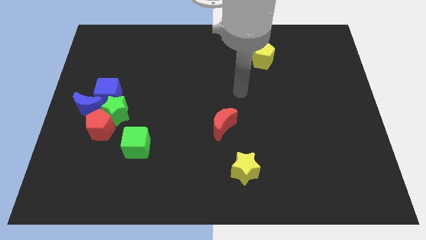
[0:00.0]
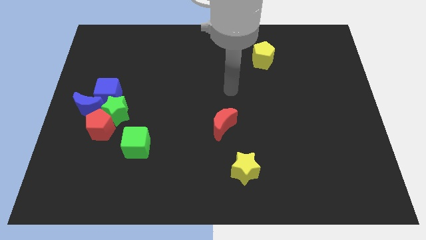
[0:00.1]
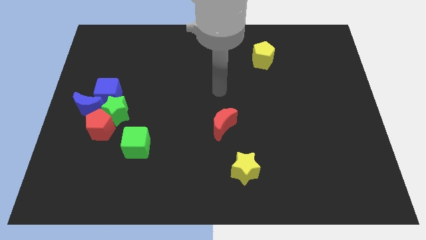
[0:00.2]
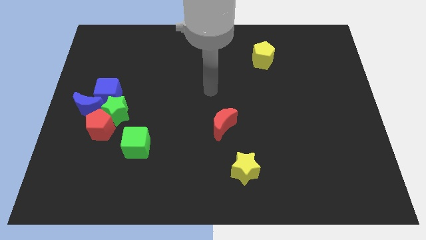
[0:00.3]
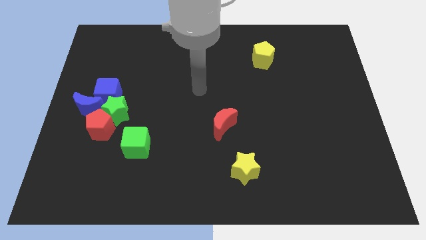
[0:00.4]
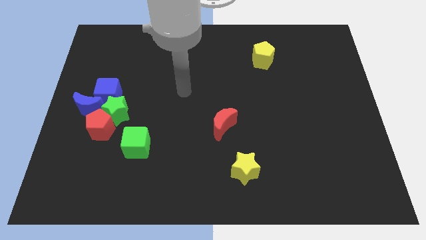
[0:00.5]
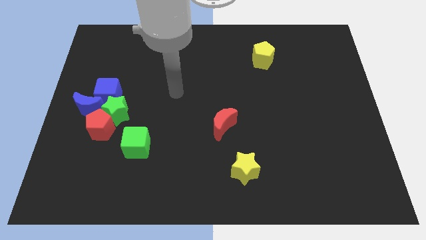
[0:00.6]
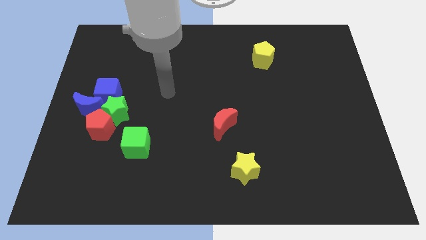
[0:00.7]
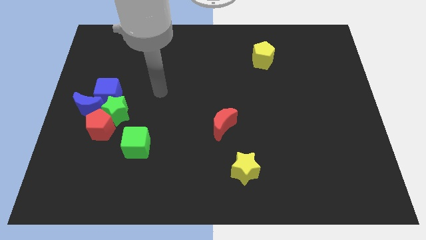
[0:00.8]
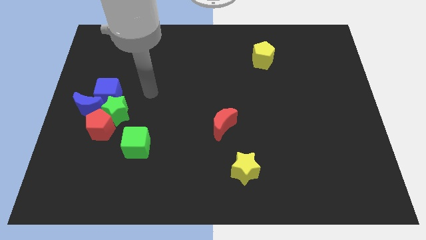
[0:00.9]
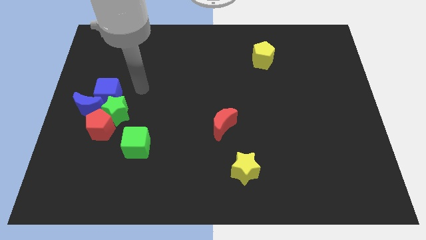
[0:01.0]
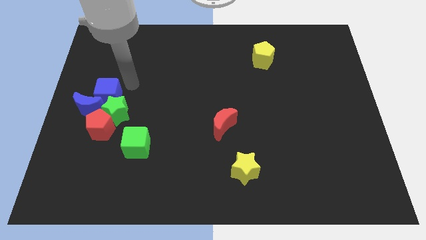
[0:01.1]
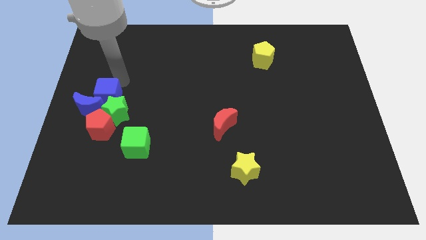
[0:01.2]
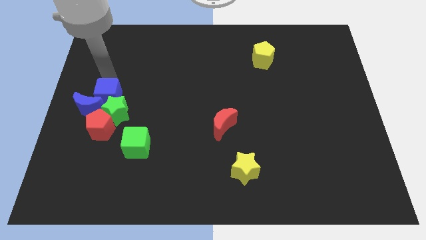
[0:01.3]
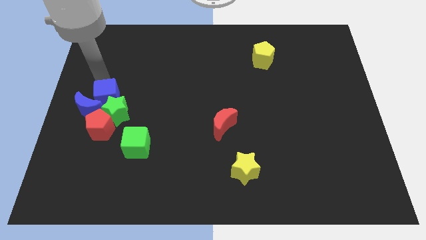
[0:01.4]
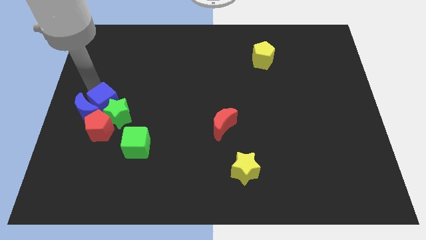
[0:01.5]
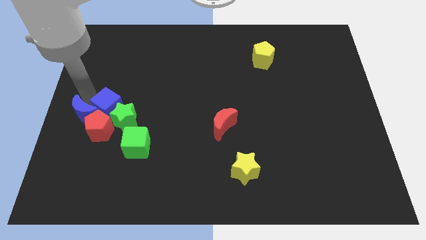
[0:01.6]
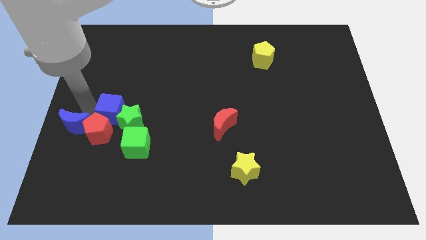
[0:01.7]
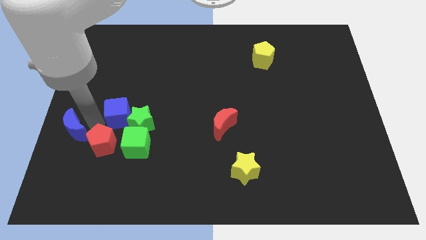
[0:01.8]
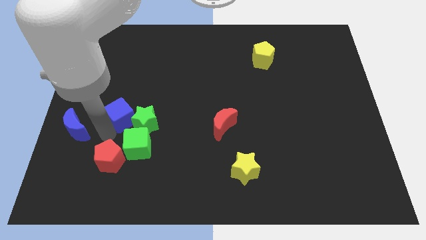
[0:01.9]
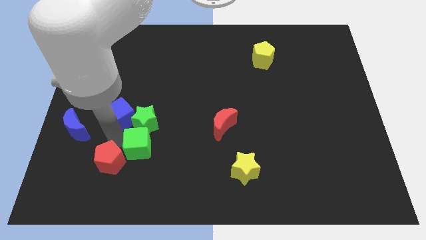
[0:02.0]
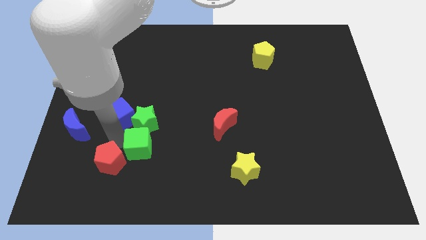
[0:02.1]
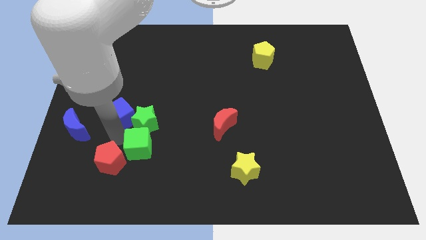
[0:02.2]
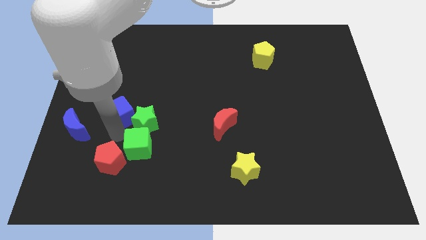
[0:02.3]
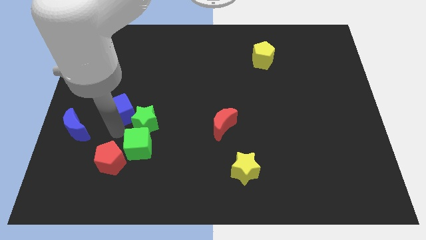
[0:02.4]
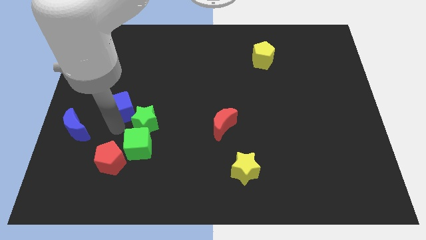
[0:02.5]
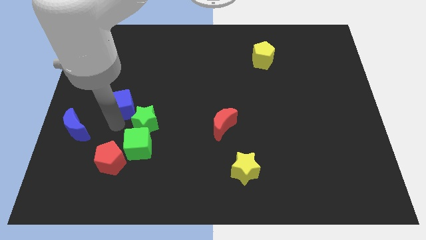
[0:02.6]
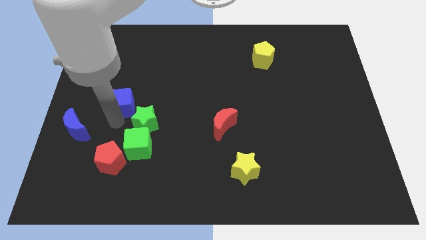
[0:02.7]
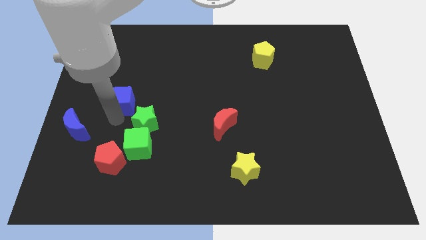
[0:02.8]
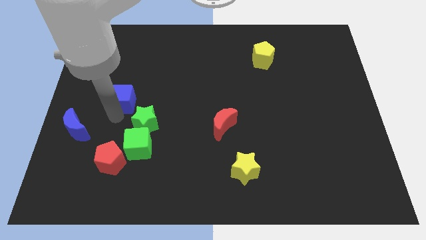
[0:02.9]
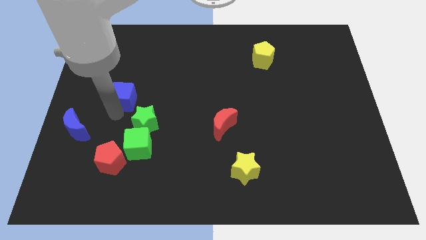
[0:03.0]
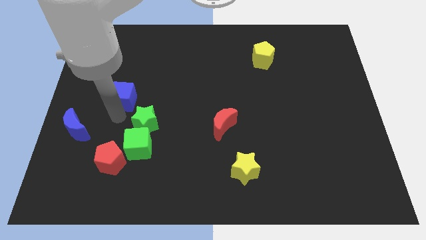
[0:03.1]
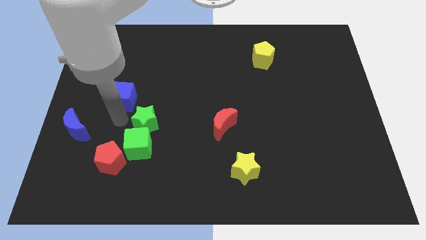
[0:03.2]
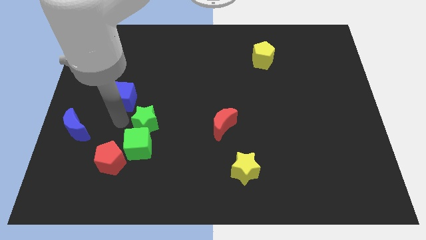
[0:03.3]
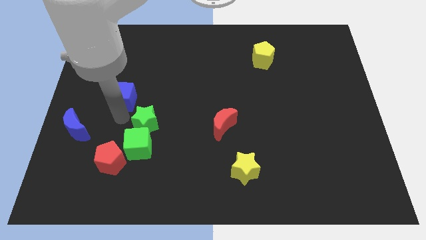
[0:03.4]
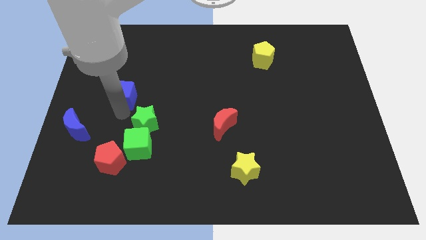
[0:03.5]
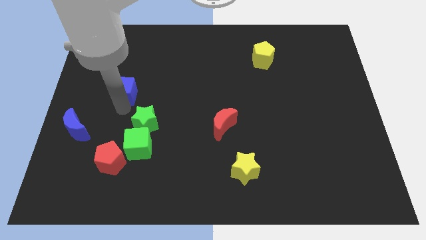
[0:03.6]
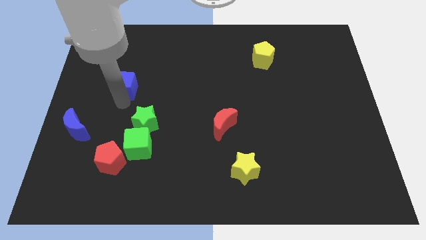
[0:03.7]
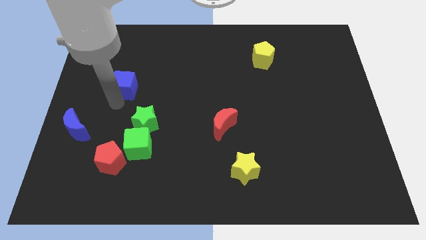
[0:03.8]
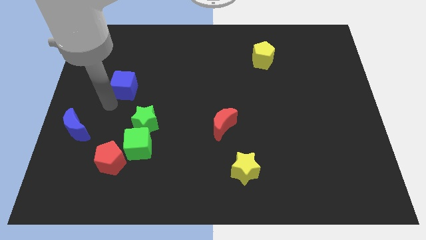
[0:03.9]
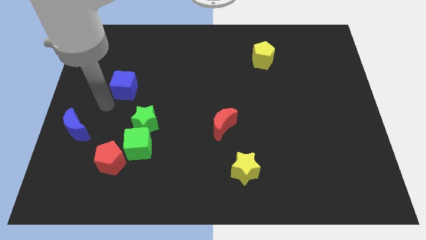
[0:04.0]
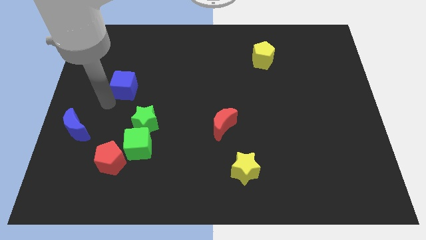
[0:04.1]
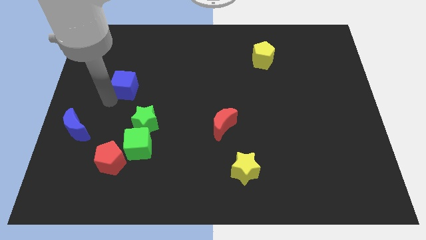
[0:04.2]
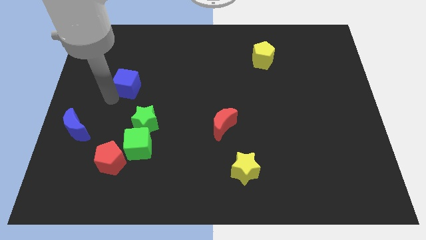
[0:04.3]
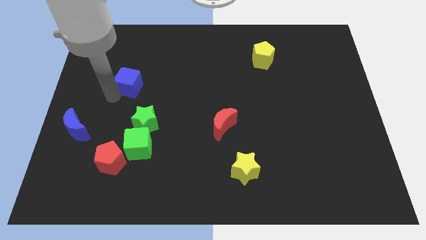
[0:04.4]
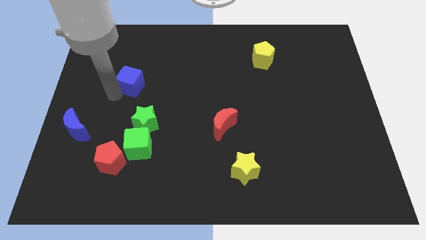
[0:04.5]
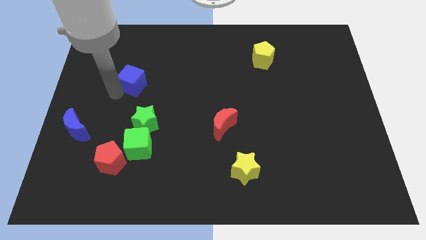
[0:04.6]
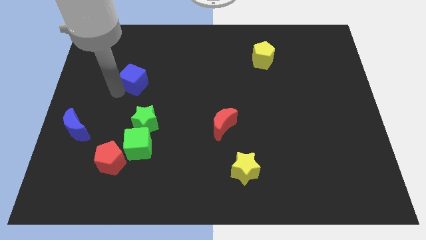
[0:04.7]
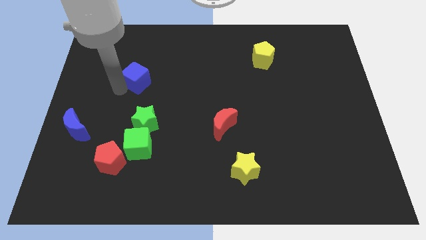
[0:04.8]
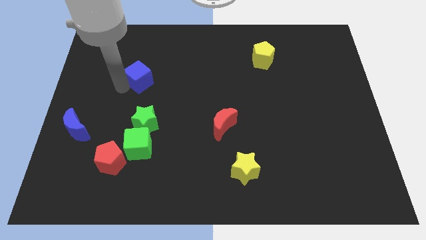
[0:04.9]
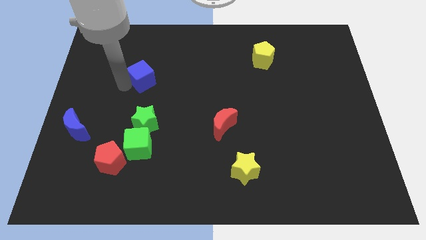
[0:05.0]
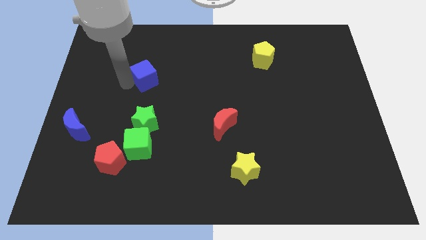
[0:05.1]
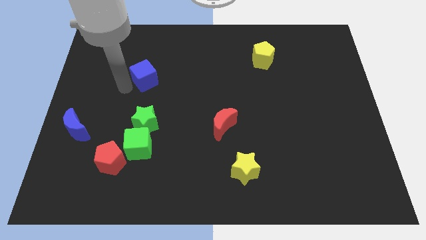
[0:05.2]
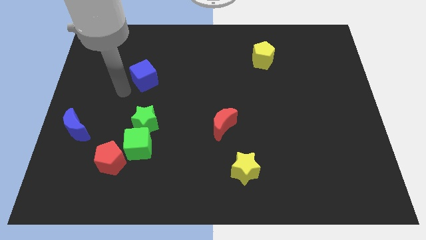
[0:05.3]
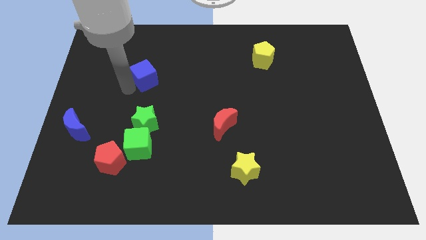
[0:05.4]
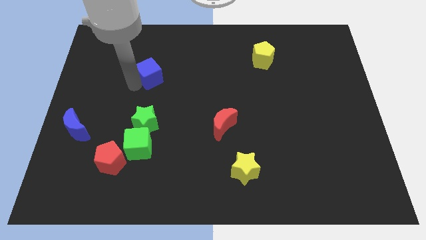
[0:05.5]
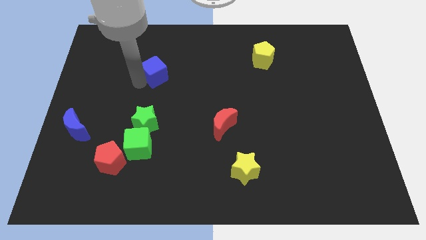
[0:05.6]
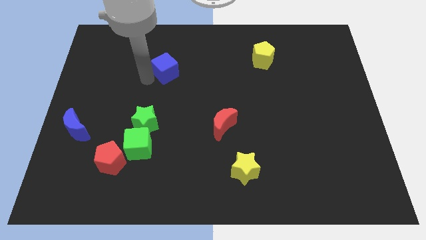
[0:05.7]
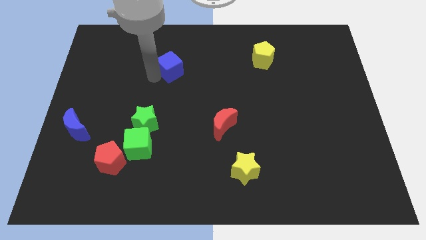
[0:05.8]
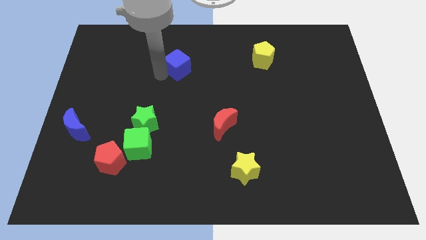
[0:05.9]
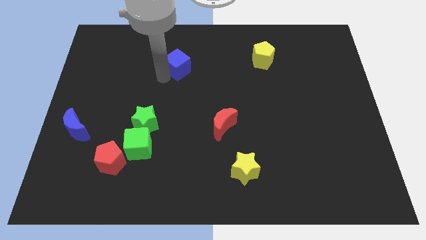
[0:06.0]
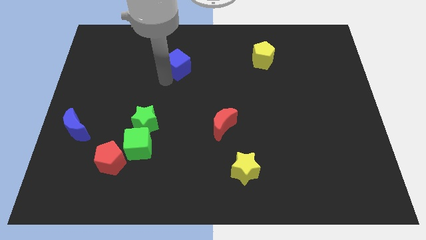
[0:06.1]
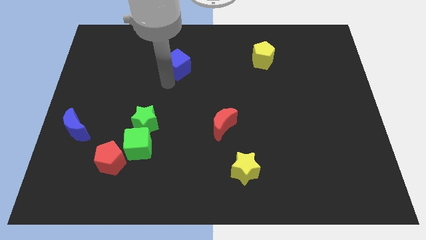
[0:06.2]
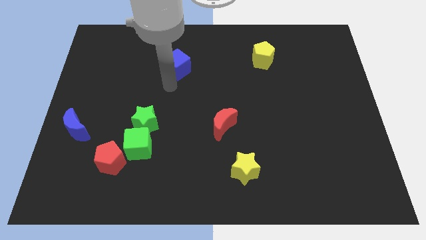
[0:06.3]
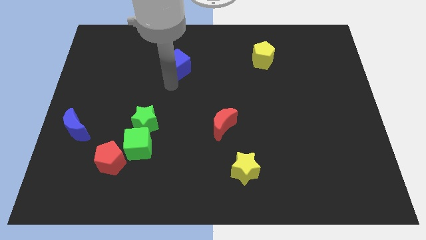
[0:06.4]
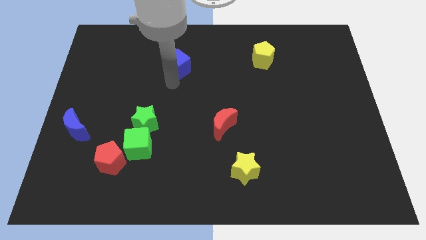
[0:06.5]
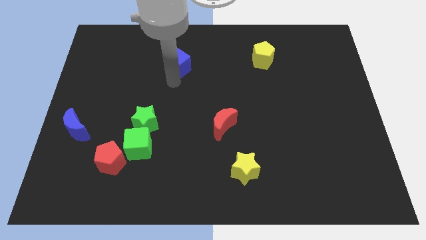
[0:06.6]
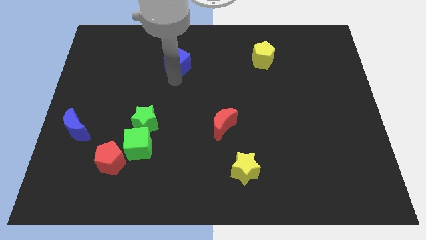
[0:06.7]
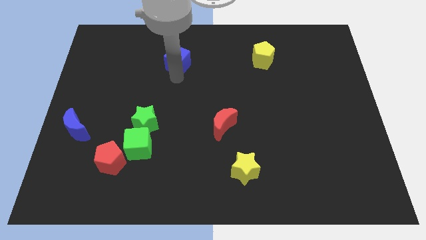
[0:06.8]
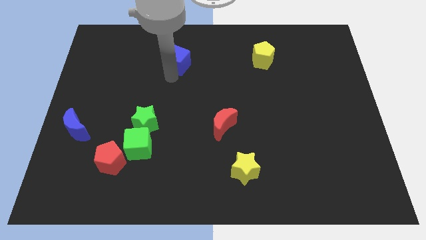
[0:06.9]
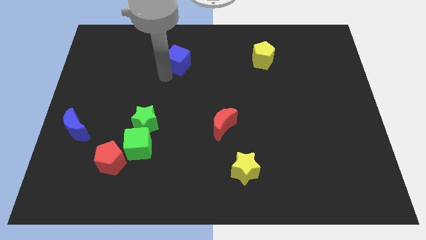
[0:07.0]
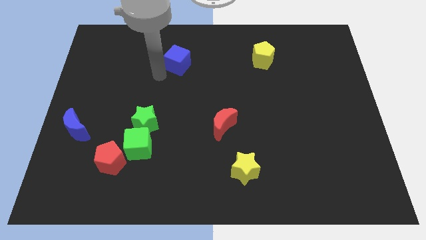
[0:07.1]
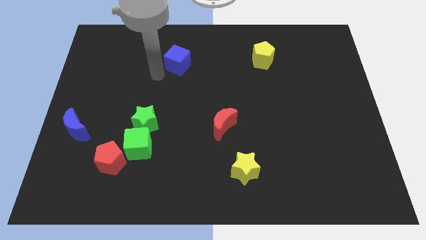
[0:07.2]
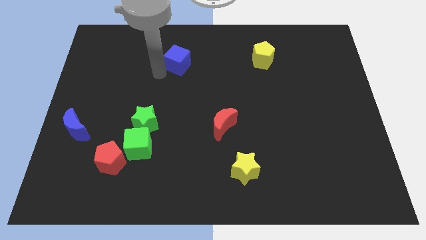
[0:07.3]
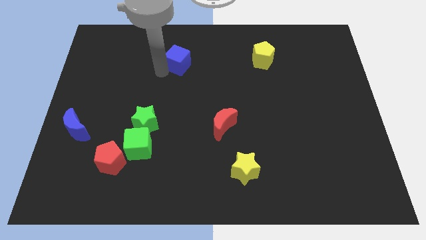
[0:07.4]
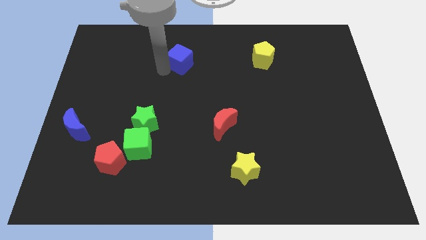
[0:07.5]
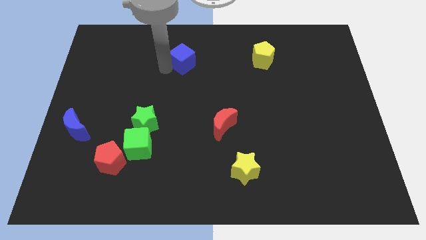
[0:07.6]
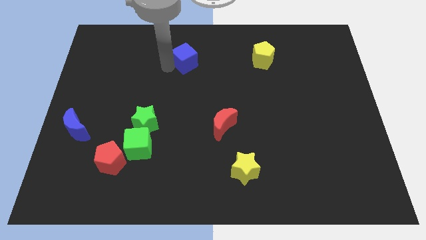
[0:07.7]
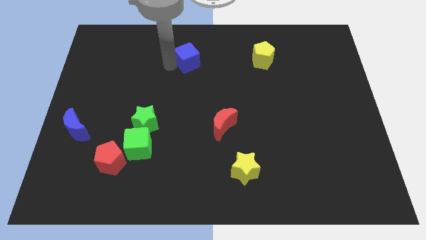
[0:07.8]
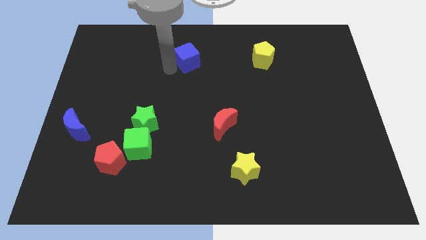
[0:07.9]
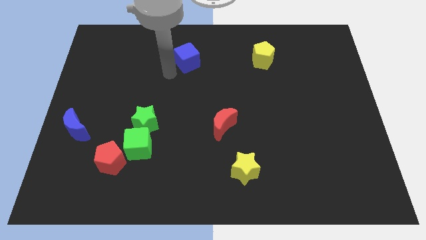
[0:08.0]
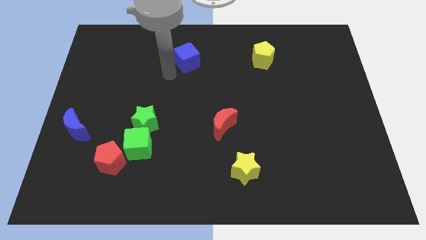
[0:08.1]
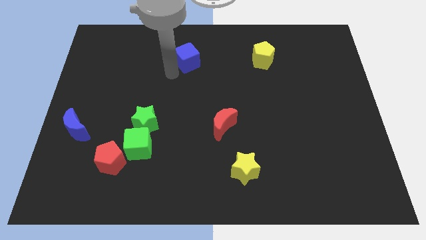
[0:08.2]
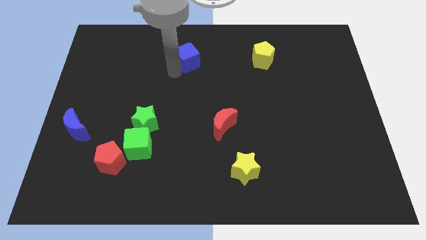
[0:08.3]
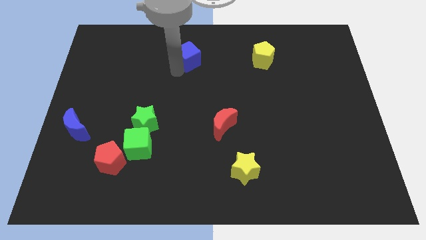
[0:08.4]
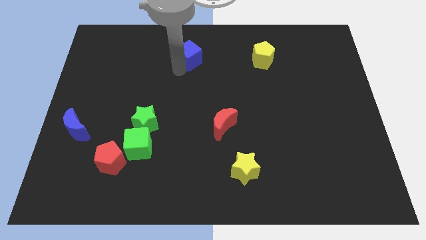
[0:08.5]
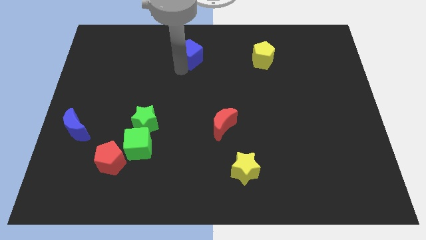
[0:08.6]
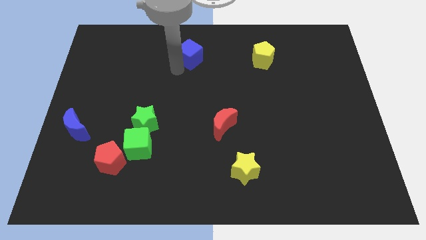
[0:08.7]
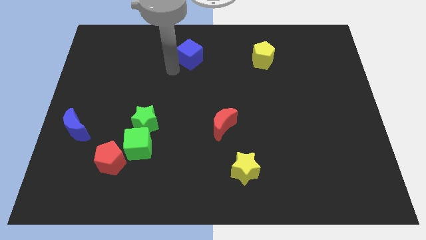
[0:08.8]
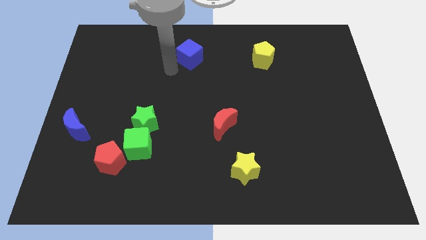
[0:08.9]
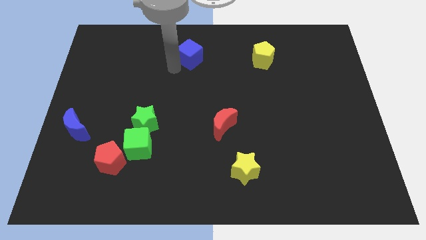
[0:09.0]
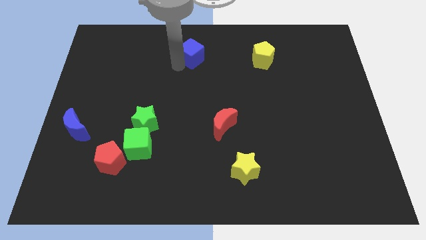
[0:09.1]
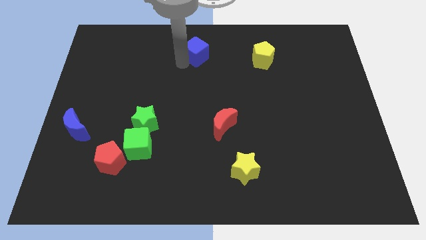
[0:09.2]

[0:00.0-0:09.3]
put the blue cube to the top side
